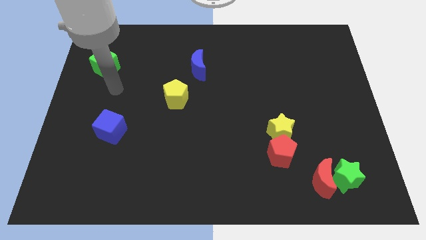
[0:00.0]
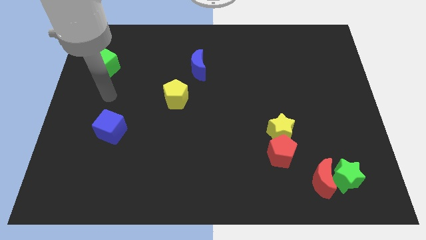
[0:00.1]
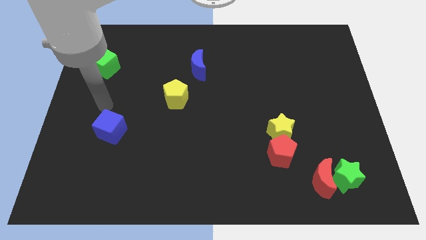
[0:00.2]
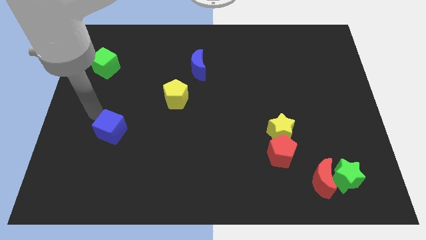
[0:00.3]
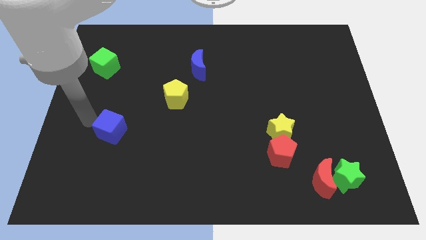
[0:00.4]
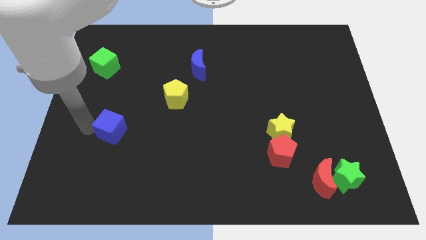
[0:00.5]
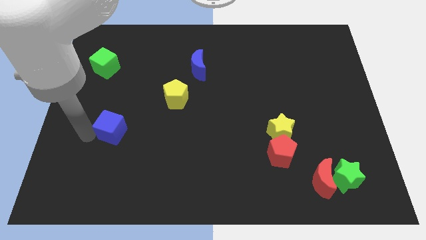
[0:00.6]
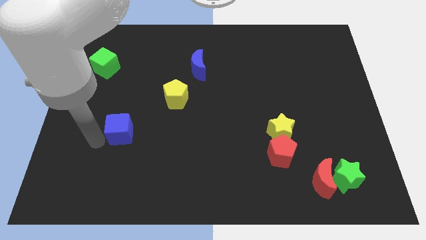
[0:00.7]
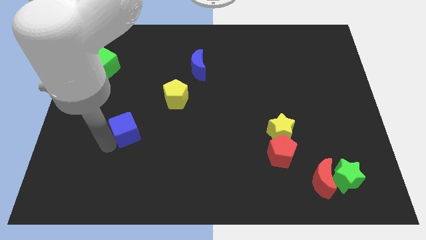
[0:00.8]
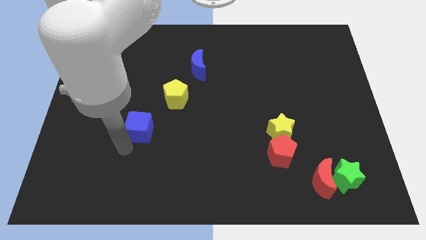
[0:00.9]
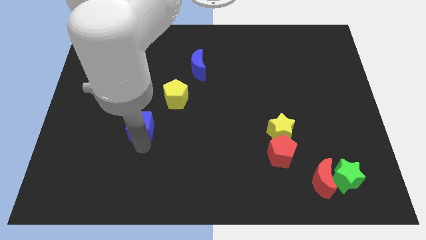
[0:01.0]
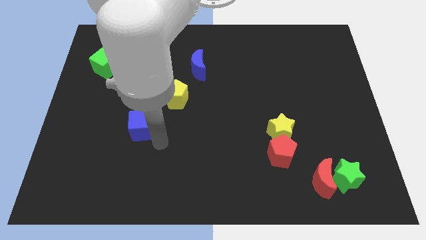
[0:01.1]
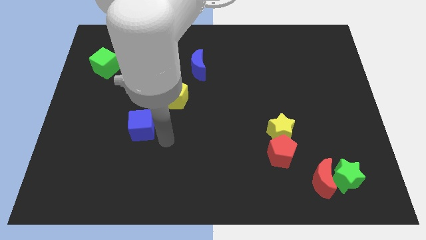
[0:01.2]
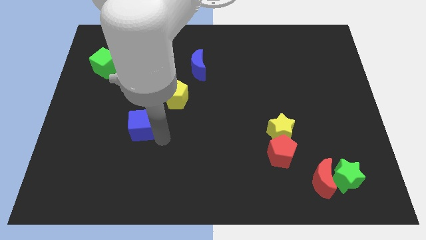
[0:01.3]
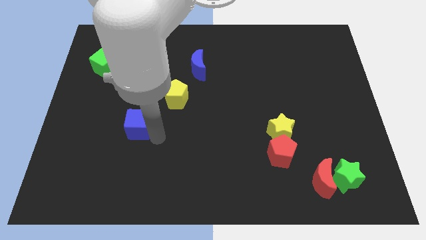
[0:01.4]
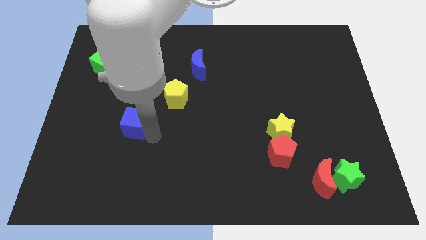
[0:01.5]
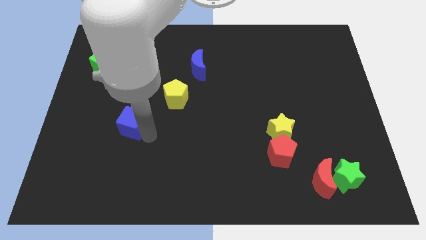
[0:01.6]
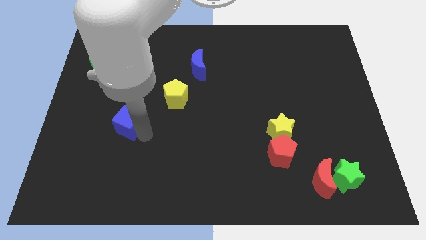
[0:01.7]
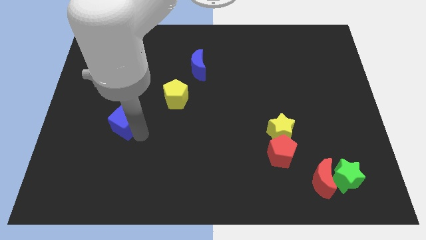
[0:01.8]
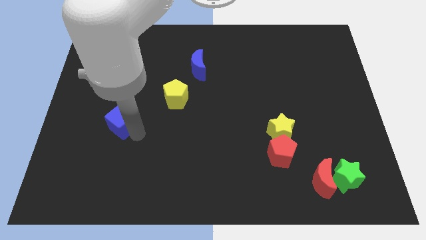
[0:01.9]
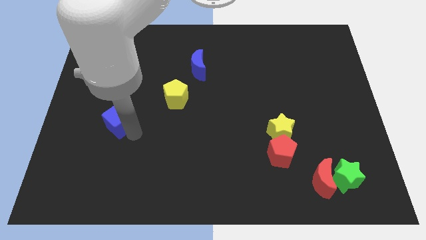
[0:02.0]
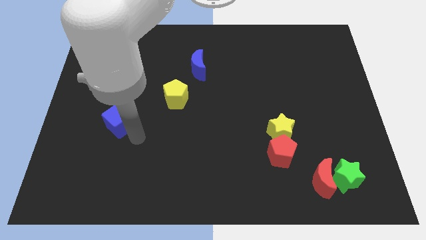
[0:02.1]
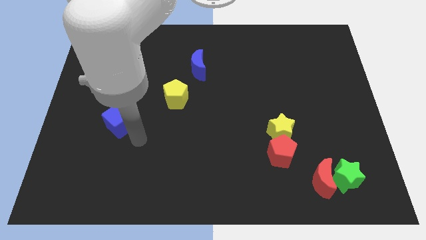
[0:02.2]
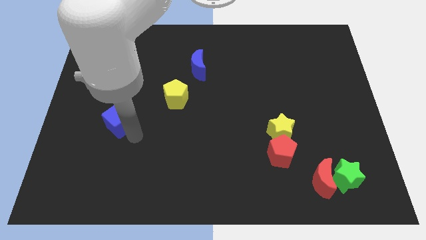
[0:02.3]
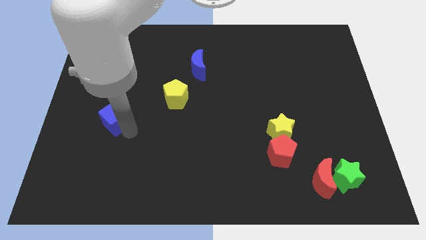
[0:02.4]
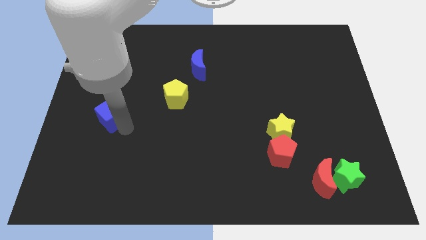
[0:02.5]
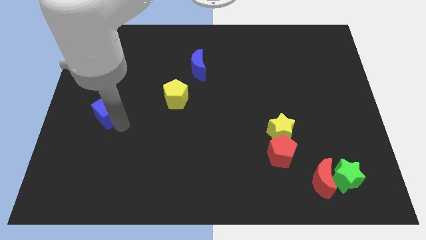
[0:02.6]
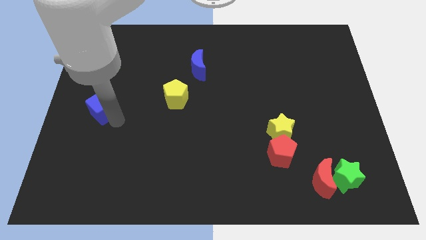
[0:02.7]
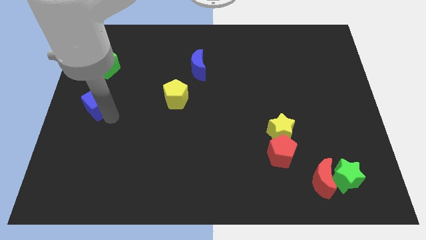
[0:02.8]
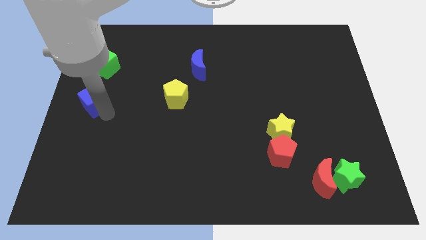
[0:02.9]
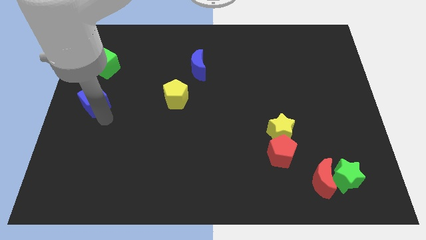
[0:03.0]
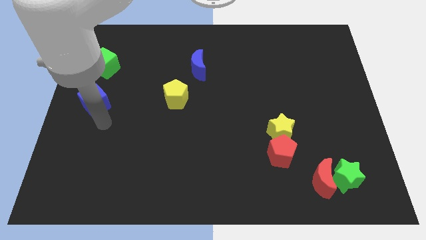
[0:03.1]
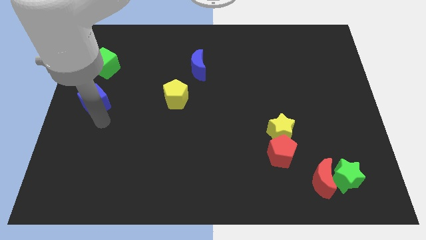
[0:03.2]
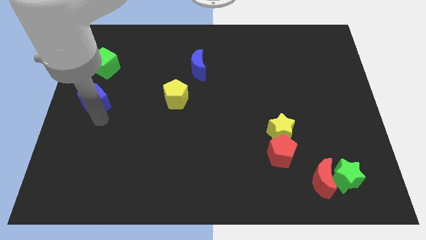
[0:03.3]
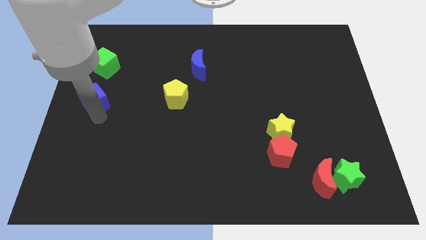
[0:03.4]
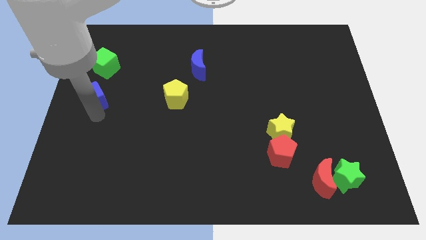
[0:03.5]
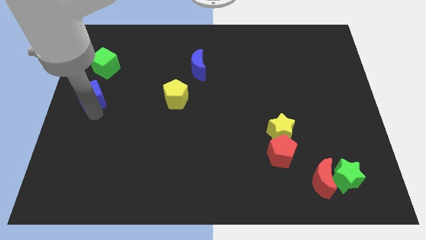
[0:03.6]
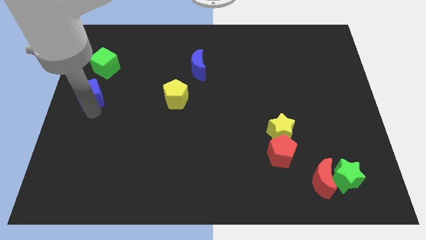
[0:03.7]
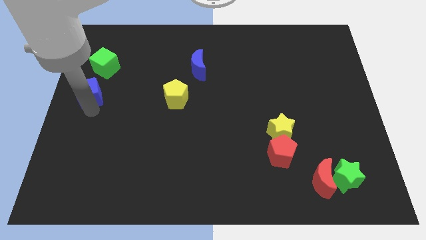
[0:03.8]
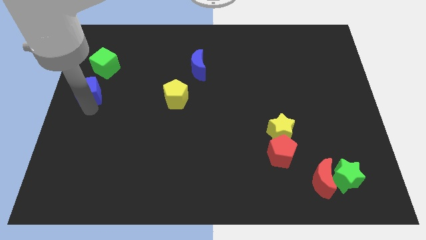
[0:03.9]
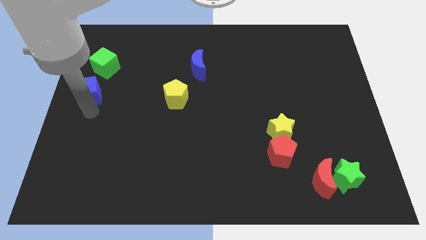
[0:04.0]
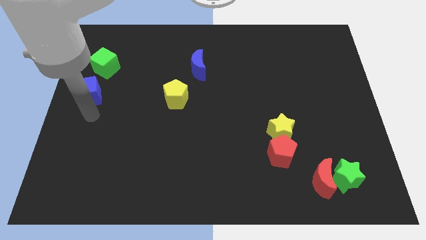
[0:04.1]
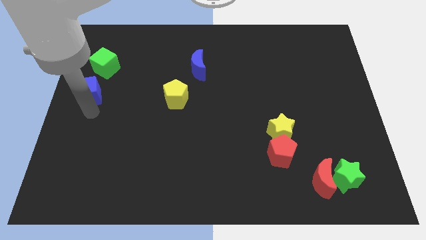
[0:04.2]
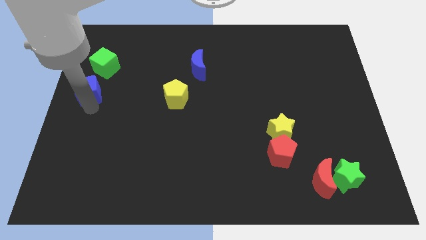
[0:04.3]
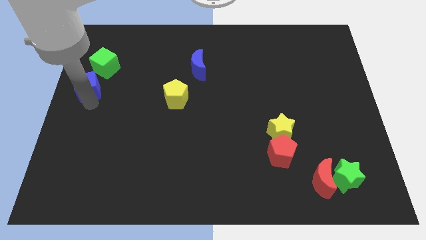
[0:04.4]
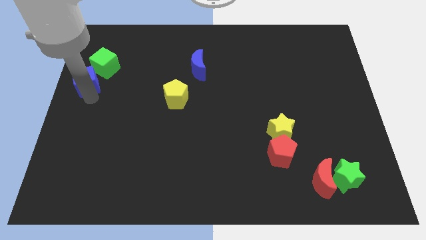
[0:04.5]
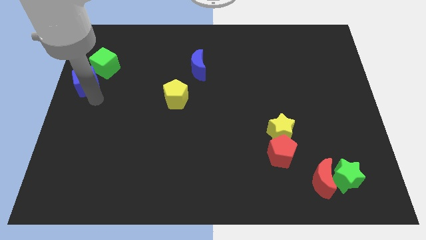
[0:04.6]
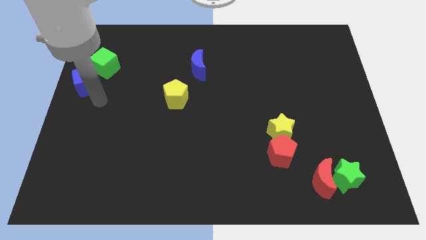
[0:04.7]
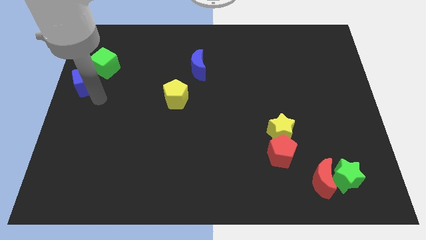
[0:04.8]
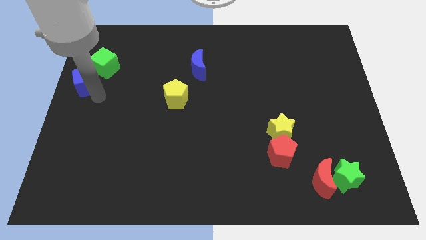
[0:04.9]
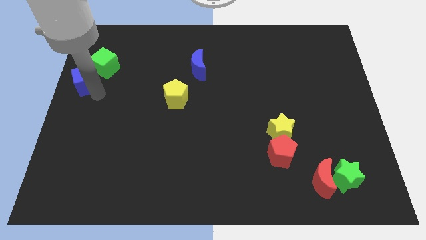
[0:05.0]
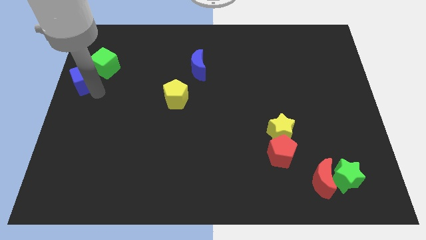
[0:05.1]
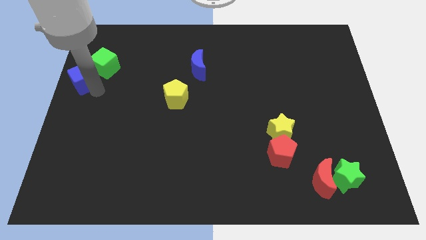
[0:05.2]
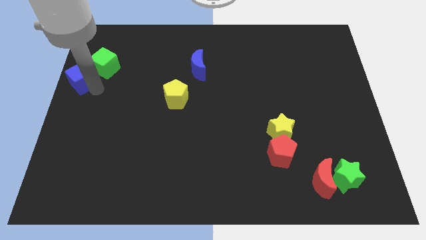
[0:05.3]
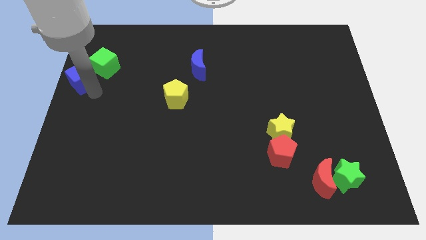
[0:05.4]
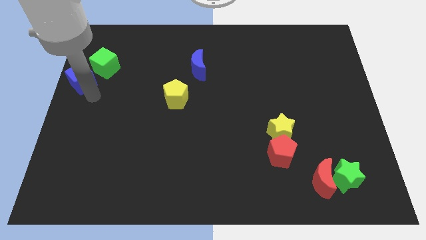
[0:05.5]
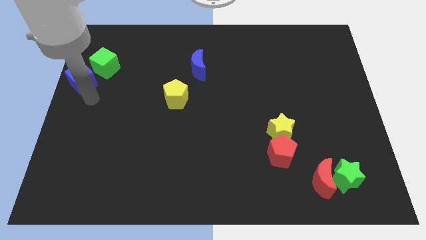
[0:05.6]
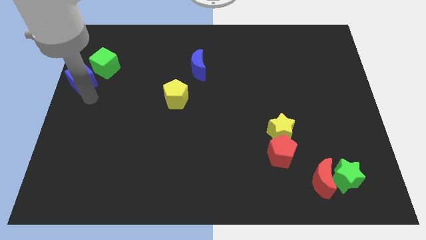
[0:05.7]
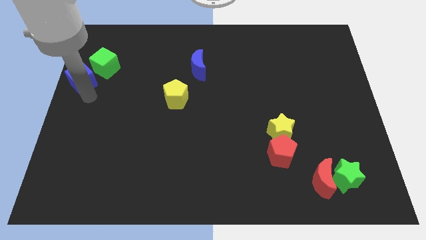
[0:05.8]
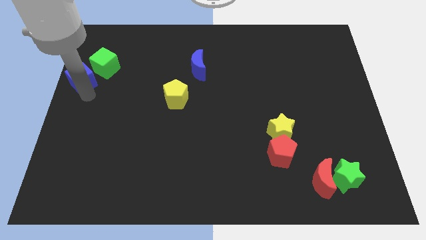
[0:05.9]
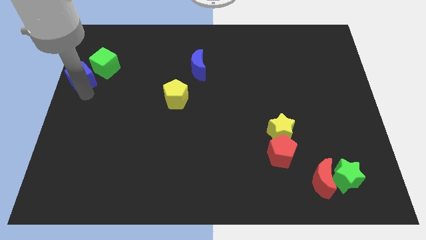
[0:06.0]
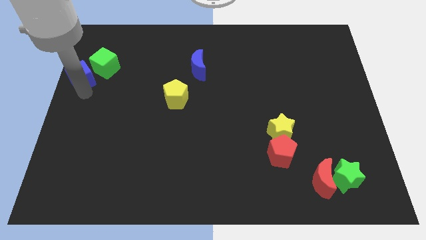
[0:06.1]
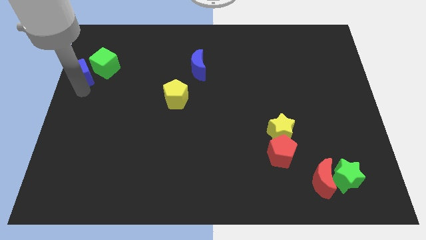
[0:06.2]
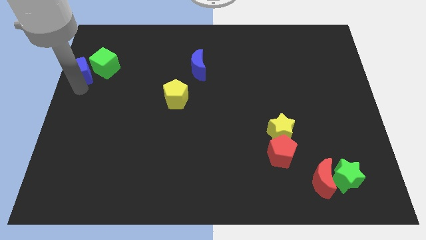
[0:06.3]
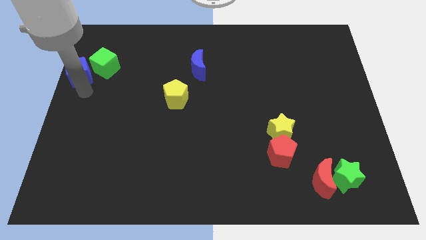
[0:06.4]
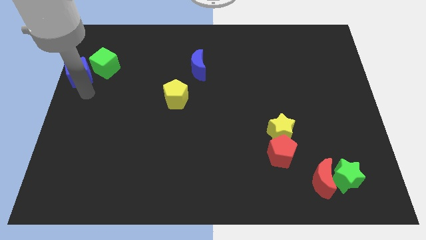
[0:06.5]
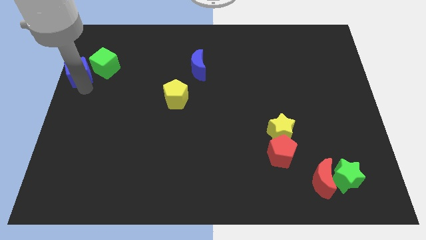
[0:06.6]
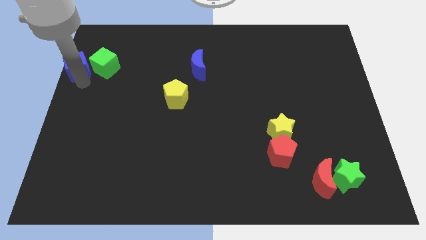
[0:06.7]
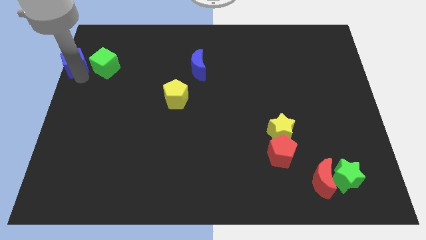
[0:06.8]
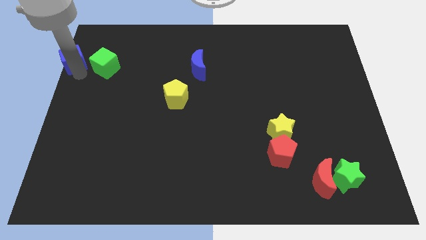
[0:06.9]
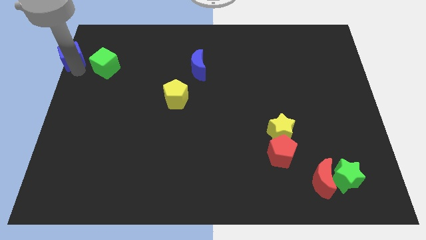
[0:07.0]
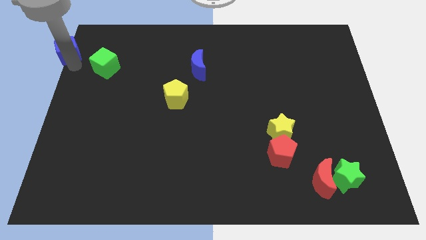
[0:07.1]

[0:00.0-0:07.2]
slide the blue cube to the top left
